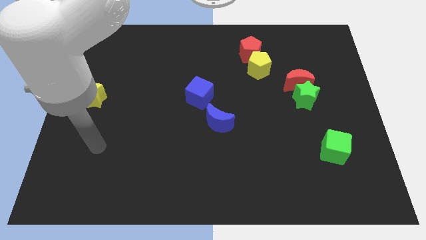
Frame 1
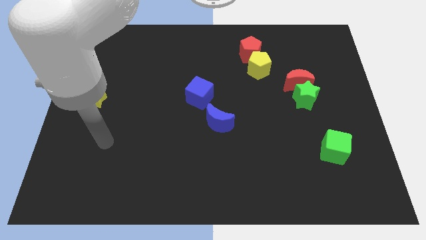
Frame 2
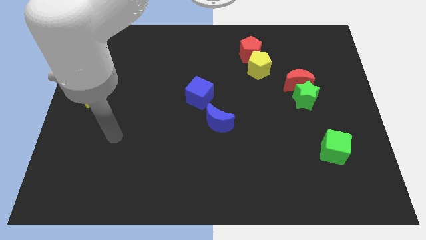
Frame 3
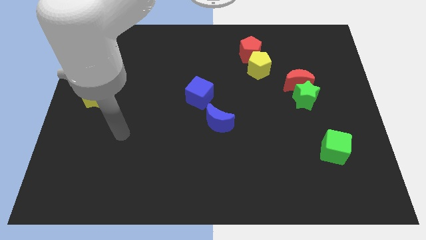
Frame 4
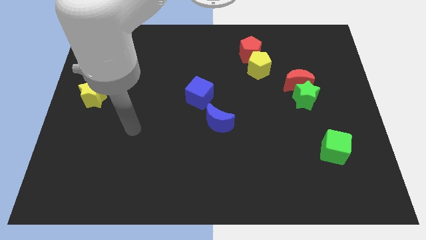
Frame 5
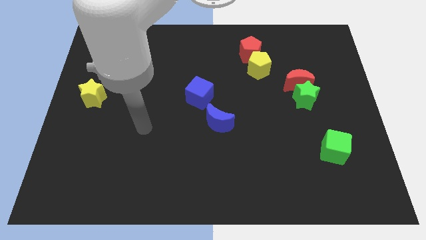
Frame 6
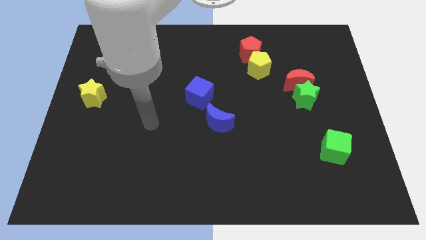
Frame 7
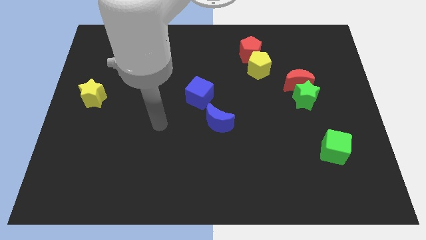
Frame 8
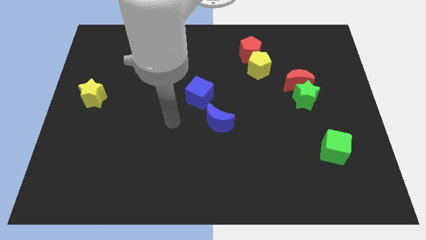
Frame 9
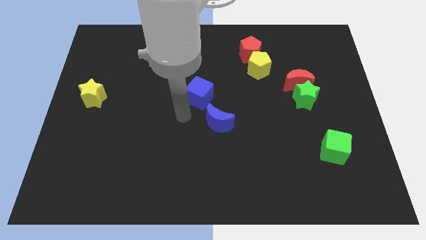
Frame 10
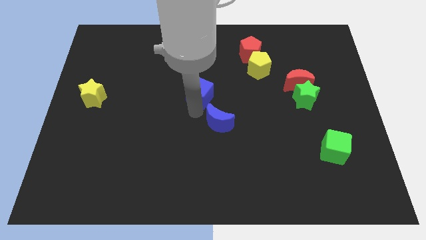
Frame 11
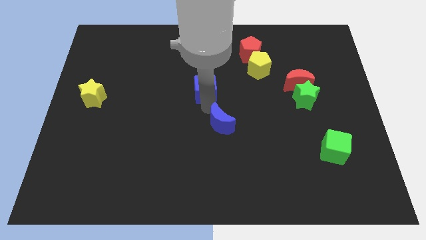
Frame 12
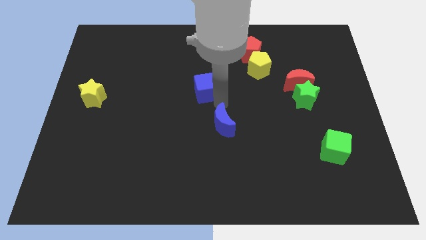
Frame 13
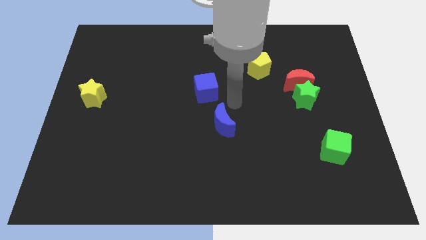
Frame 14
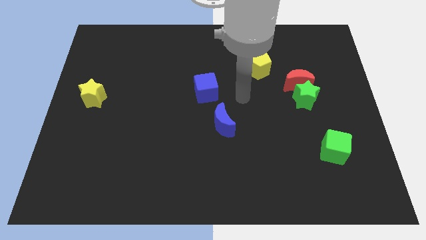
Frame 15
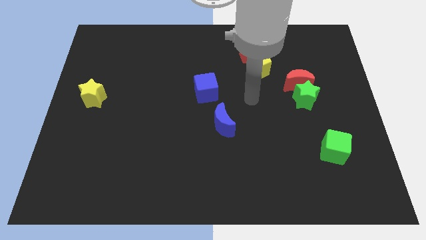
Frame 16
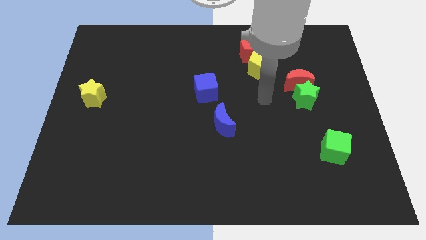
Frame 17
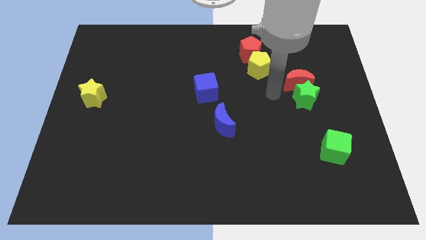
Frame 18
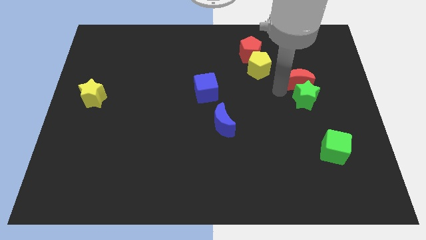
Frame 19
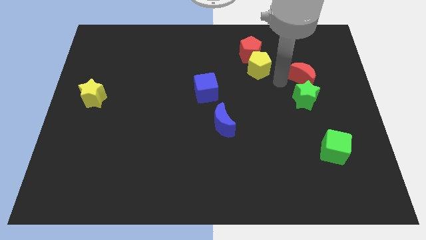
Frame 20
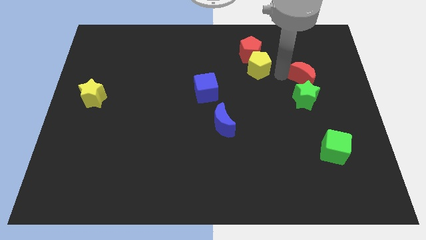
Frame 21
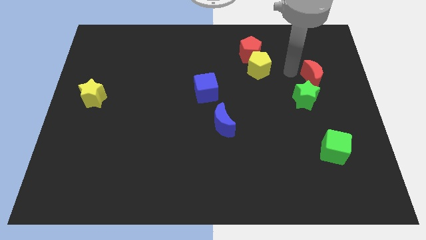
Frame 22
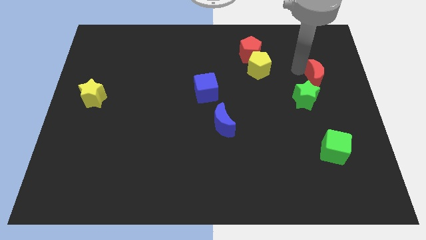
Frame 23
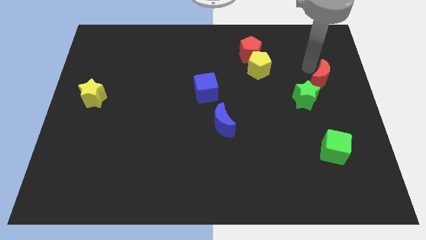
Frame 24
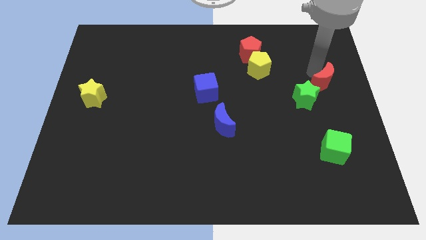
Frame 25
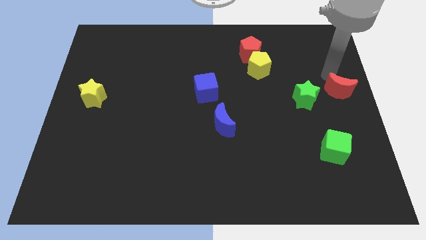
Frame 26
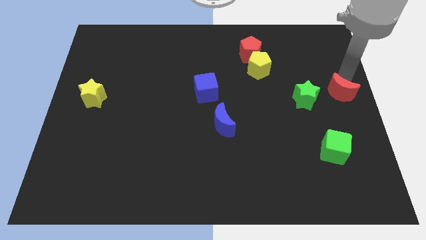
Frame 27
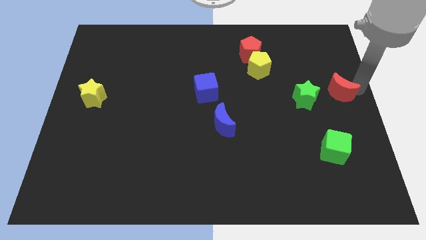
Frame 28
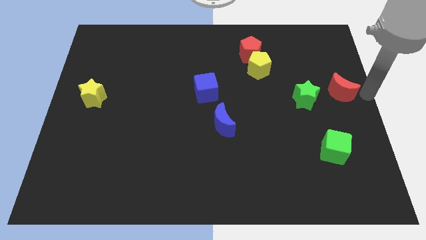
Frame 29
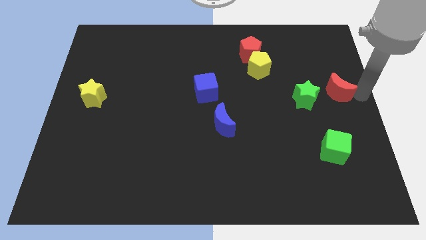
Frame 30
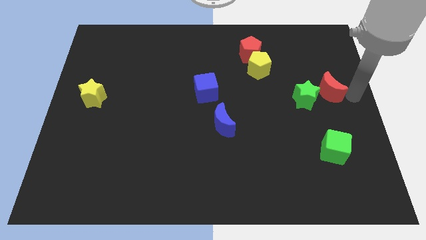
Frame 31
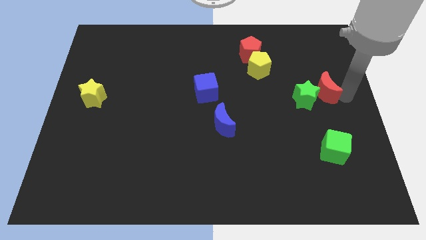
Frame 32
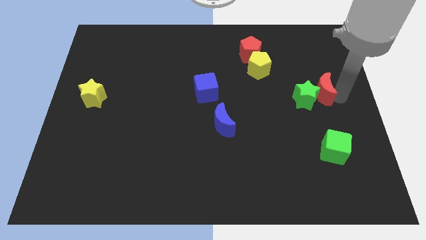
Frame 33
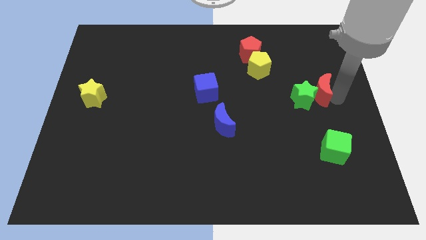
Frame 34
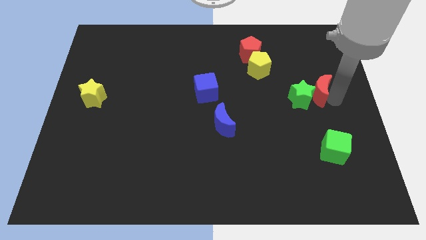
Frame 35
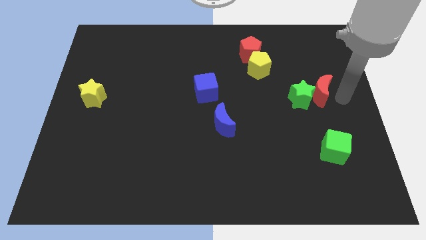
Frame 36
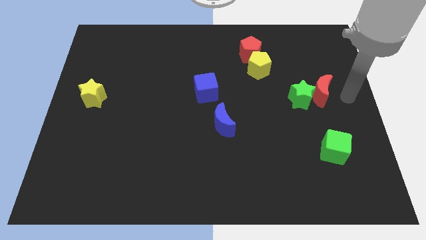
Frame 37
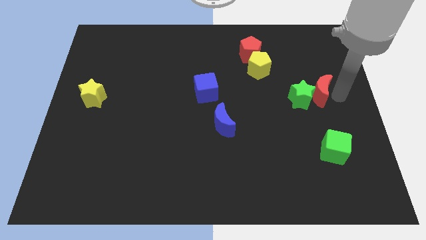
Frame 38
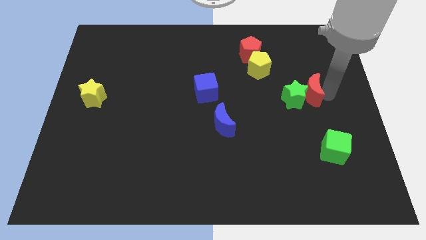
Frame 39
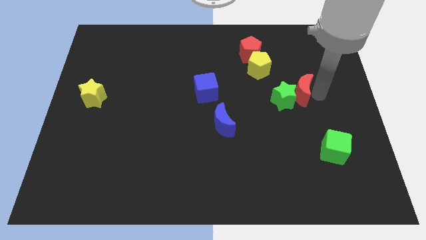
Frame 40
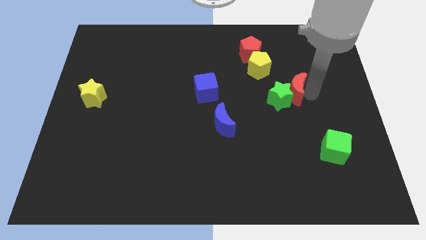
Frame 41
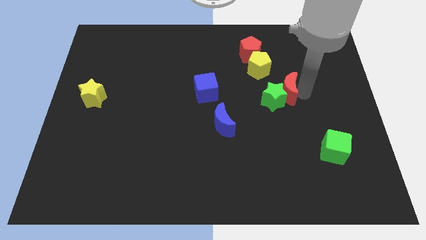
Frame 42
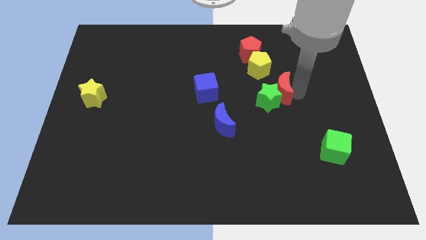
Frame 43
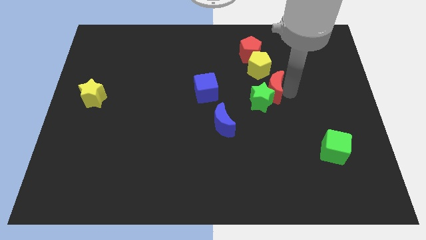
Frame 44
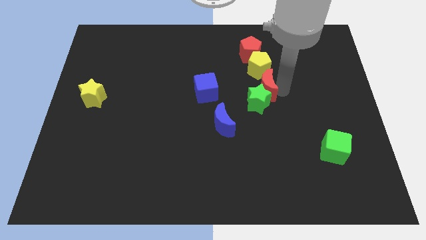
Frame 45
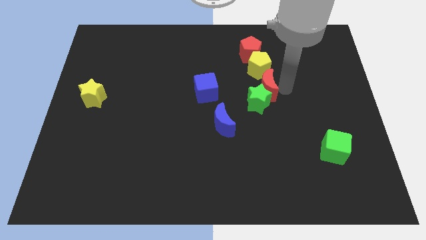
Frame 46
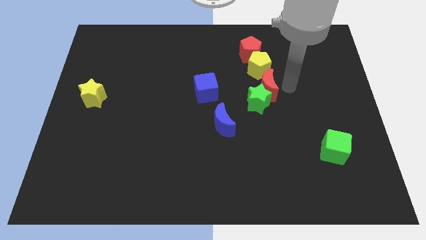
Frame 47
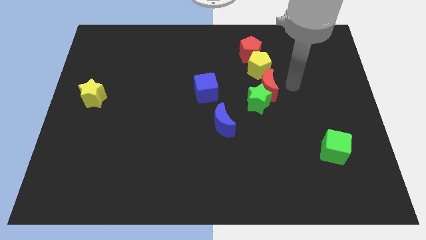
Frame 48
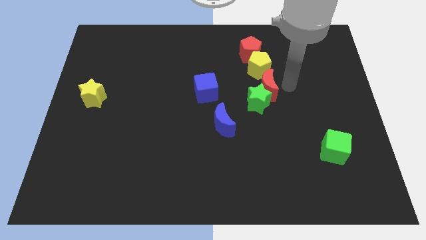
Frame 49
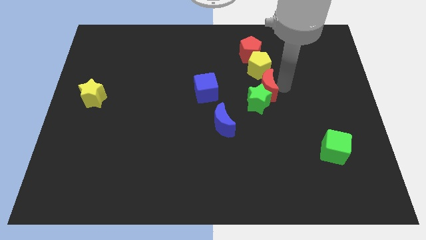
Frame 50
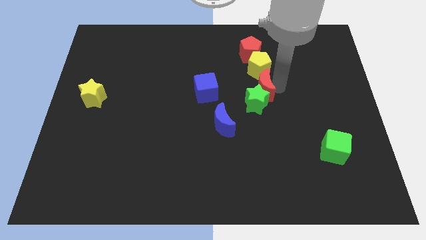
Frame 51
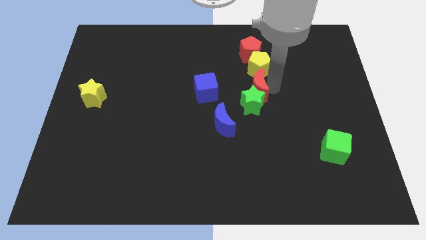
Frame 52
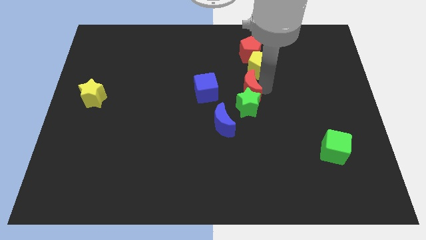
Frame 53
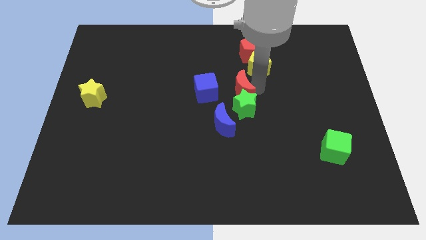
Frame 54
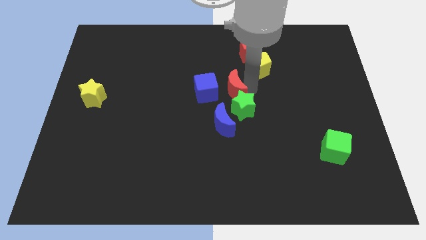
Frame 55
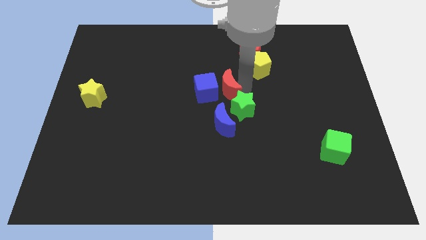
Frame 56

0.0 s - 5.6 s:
put the red moon to the blue cube

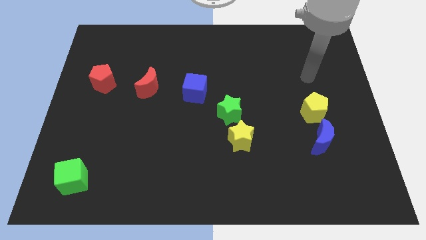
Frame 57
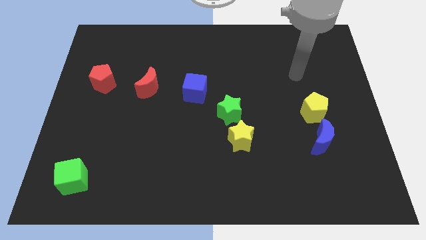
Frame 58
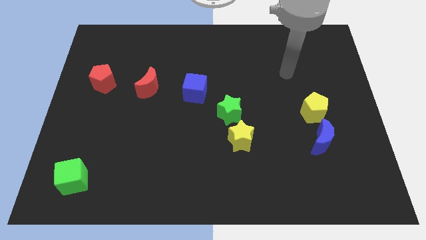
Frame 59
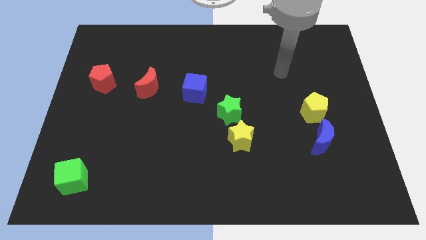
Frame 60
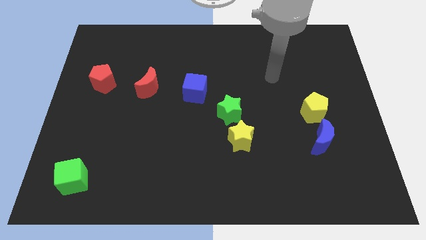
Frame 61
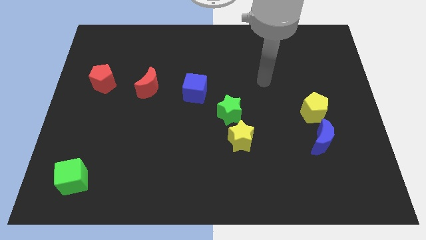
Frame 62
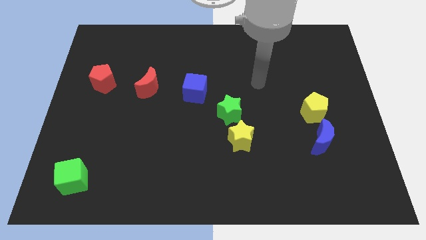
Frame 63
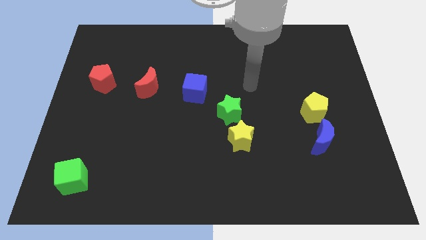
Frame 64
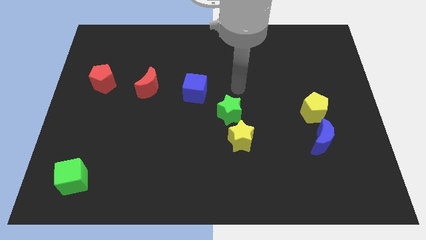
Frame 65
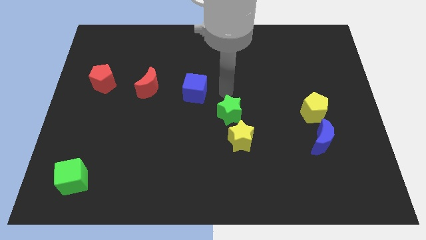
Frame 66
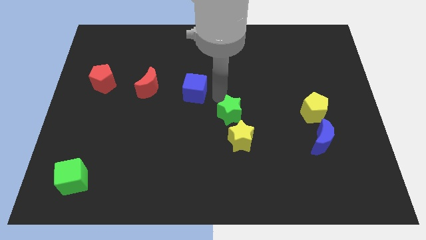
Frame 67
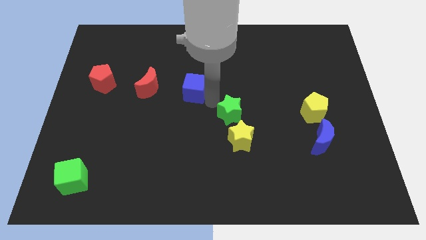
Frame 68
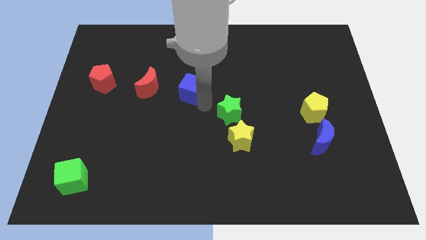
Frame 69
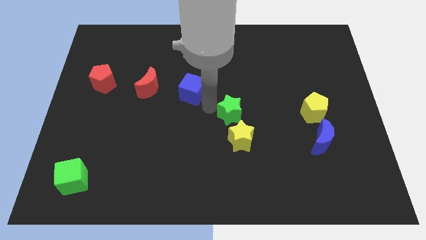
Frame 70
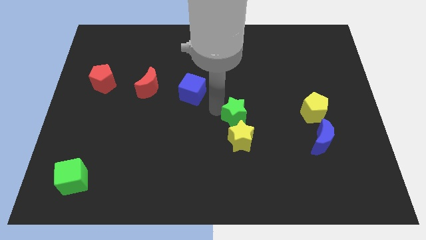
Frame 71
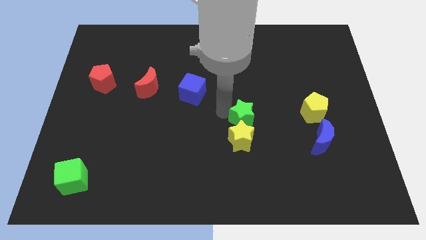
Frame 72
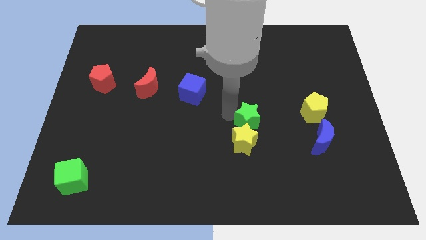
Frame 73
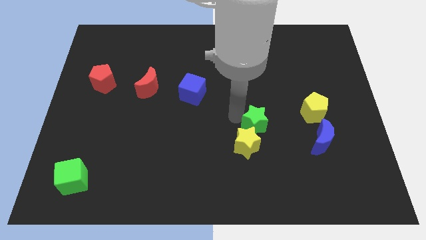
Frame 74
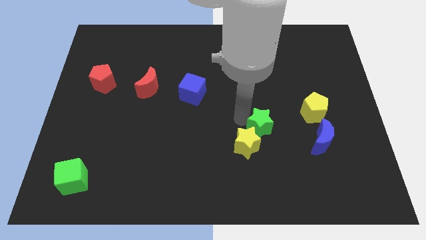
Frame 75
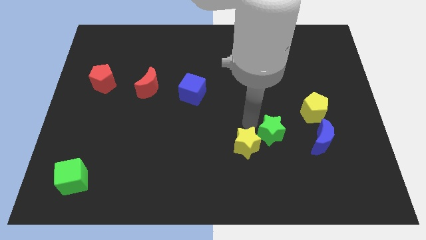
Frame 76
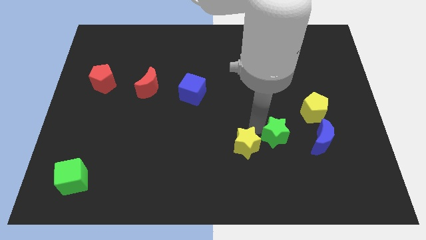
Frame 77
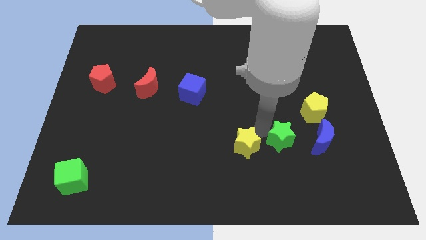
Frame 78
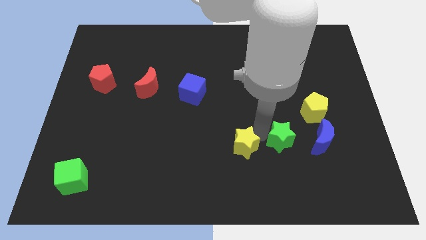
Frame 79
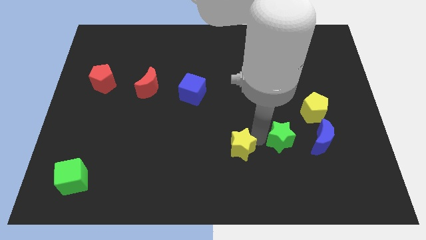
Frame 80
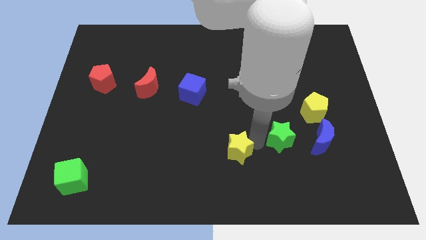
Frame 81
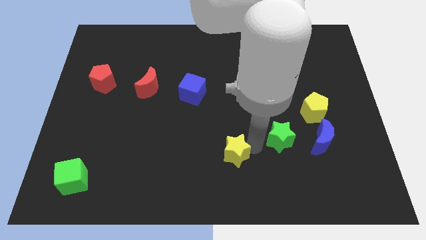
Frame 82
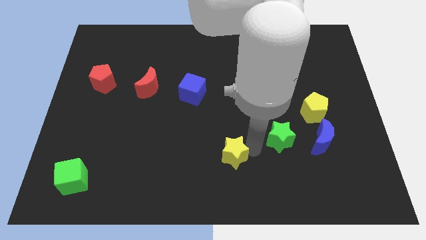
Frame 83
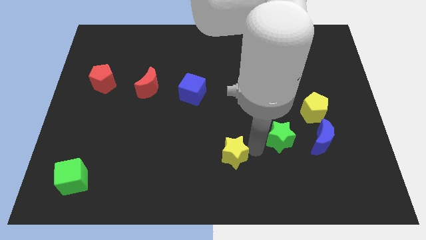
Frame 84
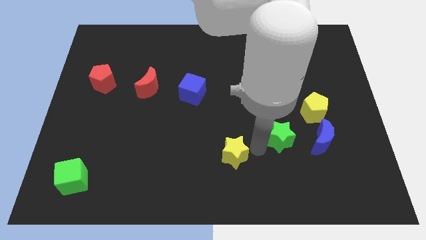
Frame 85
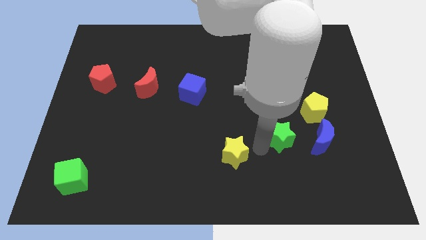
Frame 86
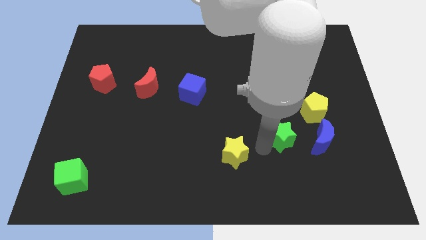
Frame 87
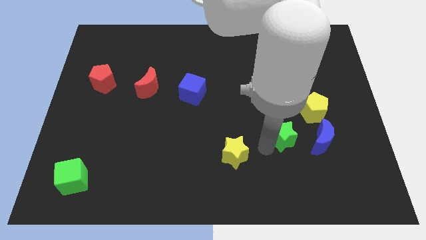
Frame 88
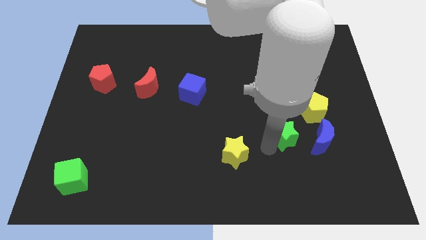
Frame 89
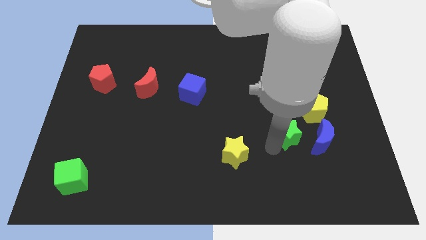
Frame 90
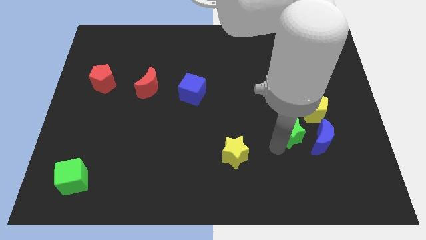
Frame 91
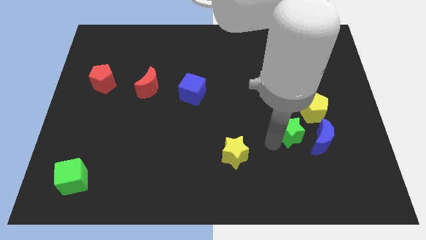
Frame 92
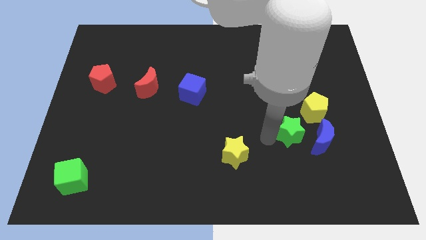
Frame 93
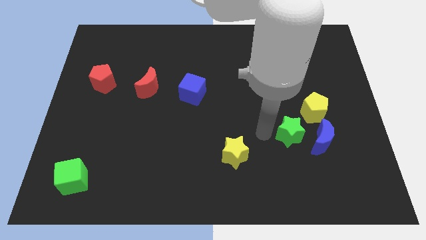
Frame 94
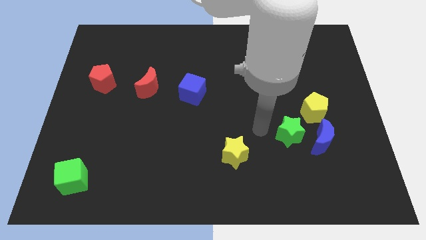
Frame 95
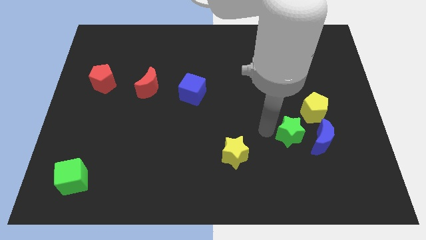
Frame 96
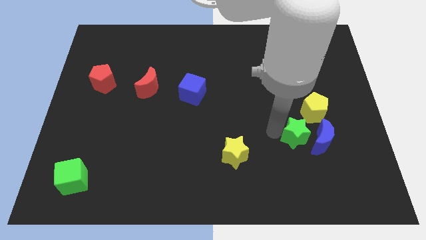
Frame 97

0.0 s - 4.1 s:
slide the green star to the blue moon
